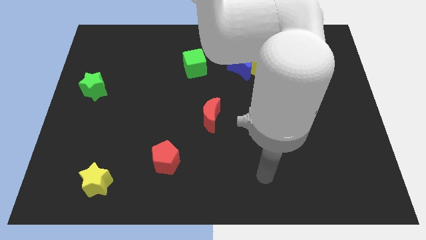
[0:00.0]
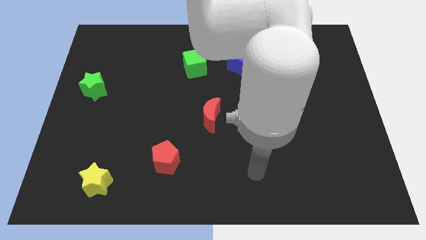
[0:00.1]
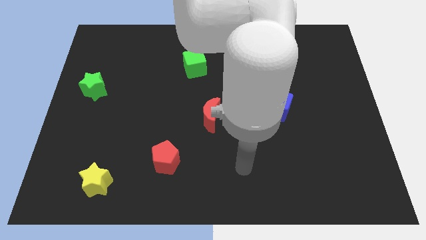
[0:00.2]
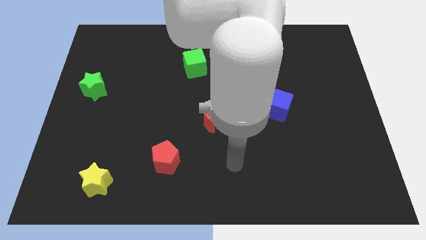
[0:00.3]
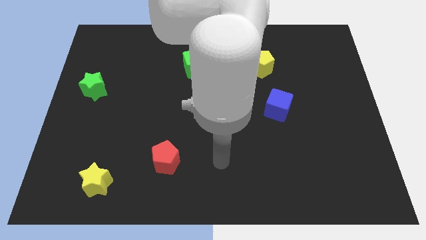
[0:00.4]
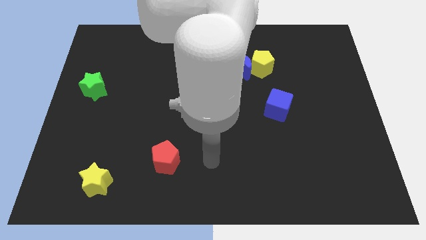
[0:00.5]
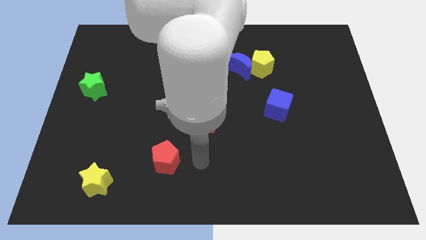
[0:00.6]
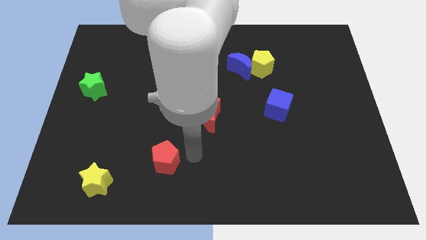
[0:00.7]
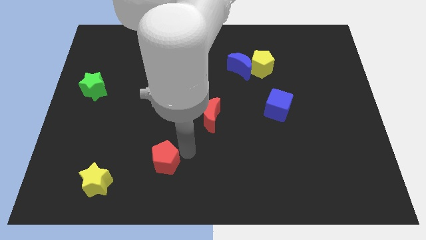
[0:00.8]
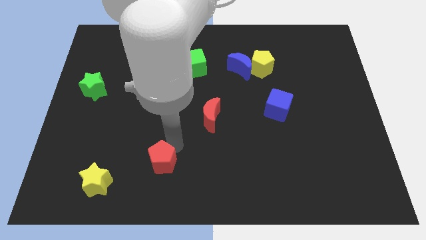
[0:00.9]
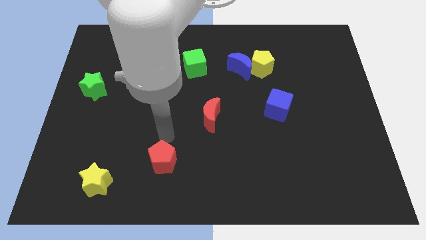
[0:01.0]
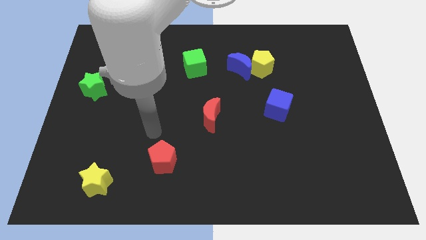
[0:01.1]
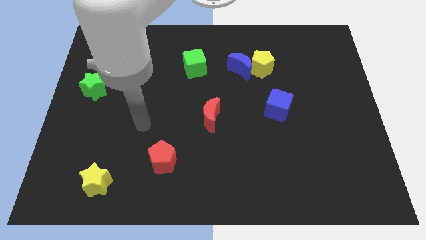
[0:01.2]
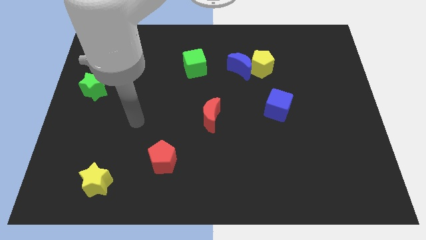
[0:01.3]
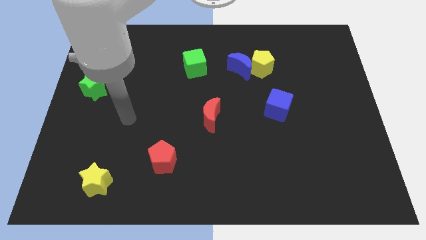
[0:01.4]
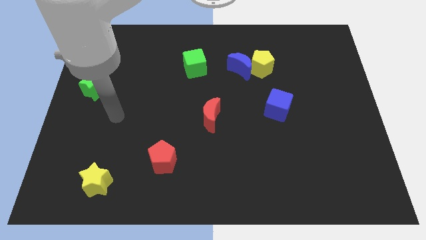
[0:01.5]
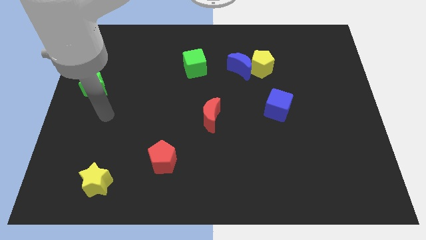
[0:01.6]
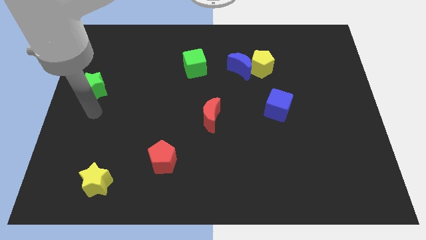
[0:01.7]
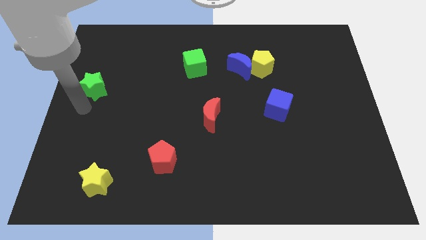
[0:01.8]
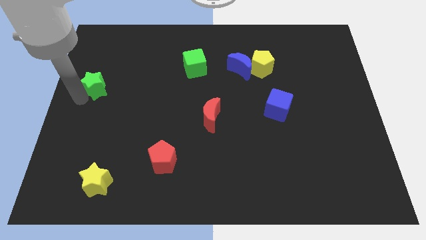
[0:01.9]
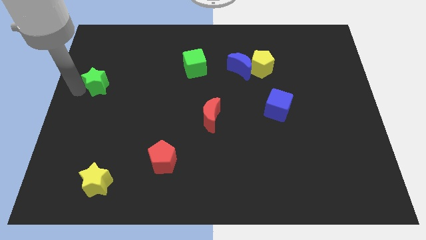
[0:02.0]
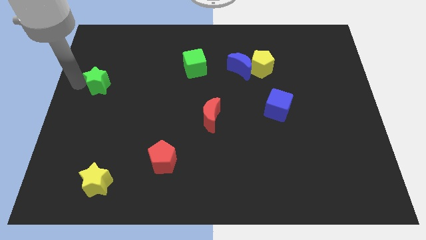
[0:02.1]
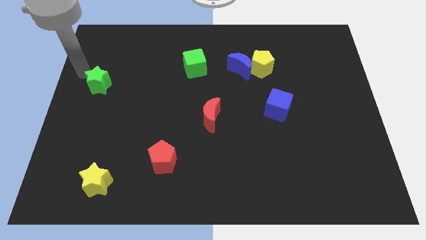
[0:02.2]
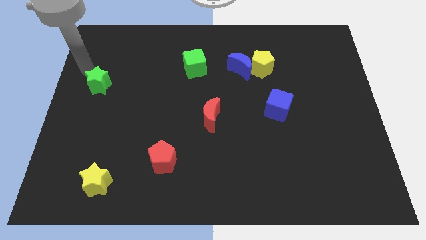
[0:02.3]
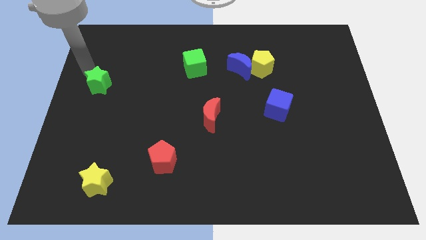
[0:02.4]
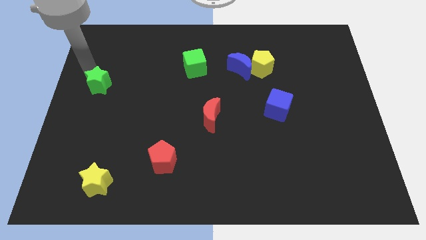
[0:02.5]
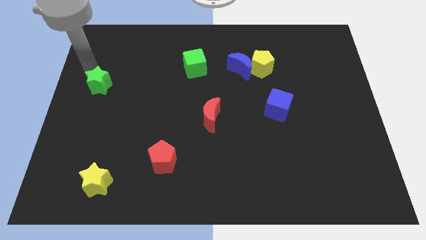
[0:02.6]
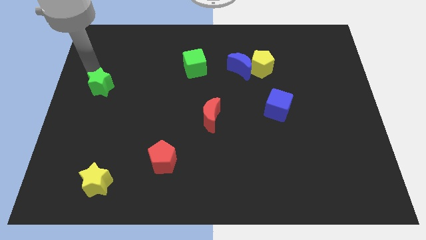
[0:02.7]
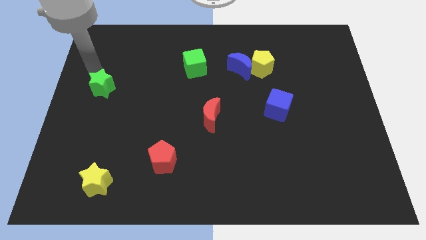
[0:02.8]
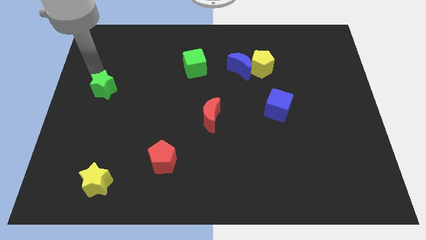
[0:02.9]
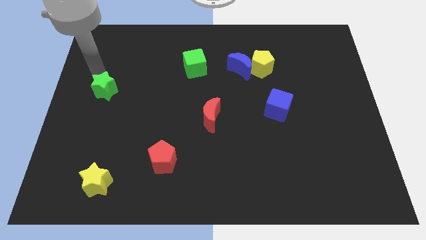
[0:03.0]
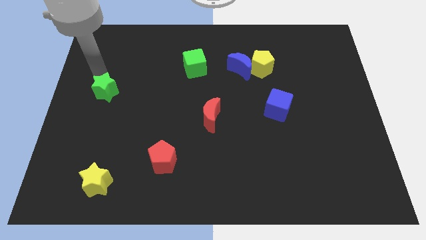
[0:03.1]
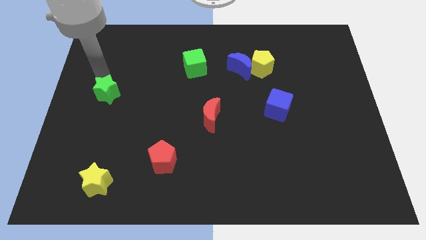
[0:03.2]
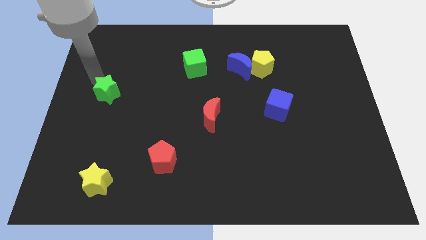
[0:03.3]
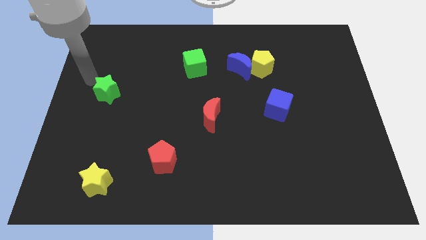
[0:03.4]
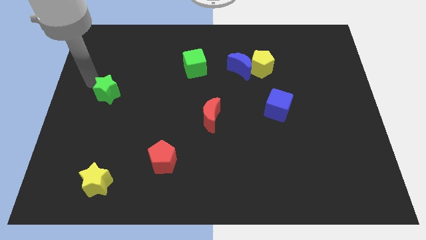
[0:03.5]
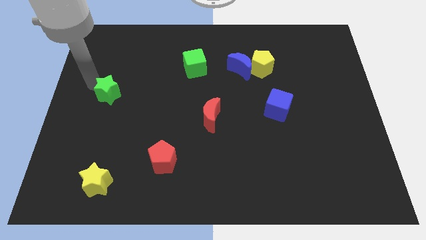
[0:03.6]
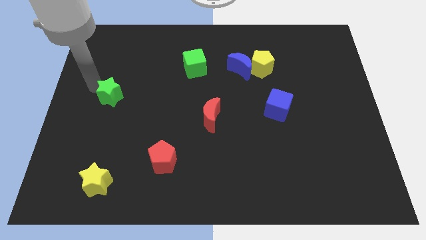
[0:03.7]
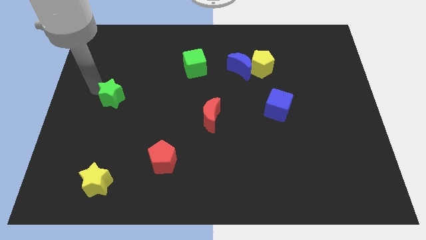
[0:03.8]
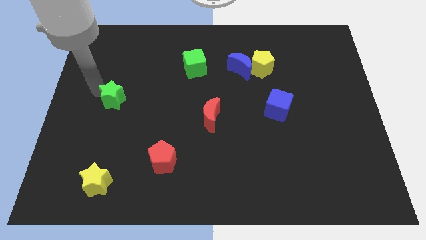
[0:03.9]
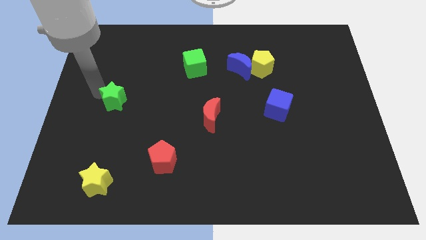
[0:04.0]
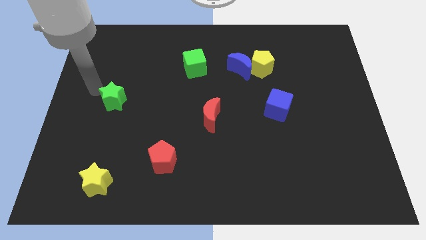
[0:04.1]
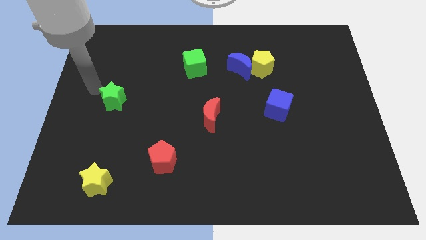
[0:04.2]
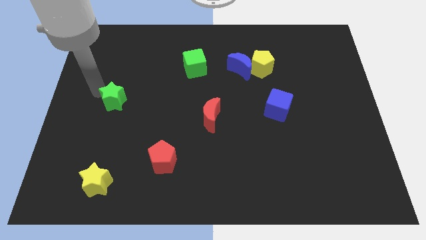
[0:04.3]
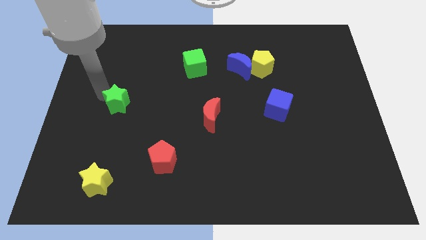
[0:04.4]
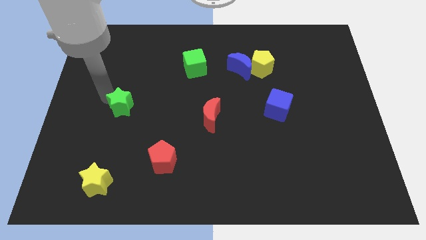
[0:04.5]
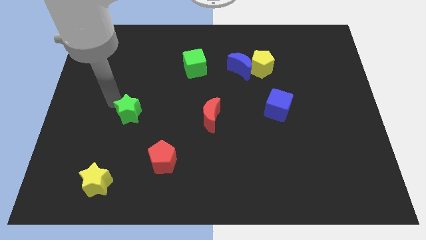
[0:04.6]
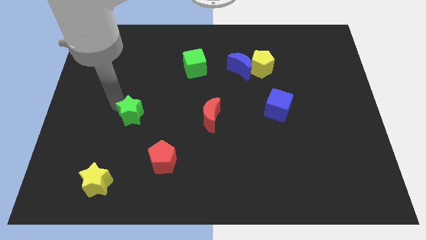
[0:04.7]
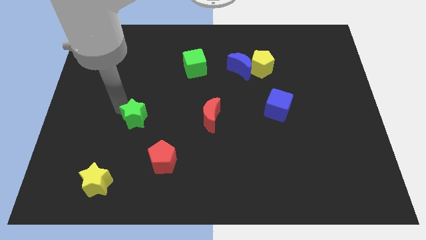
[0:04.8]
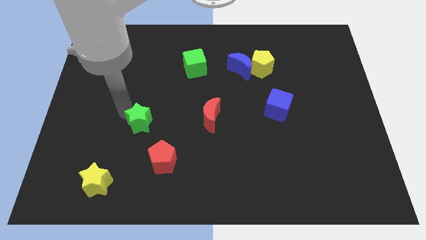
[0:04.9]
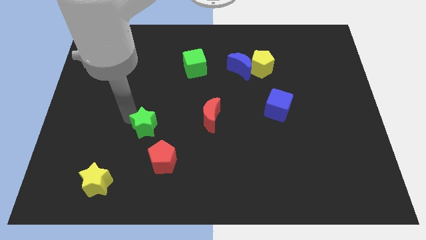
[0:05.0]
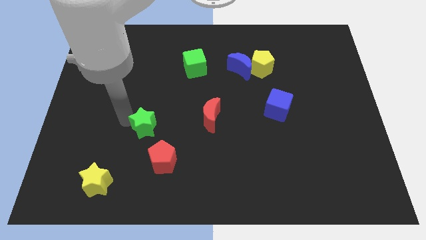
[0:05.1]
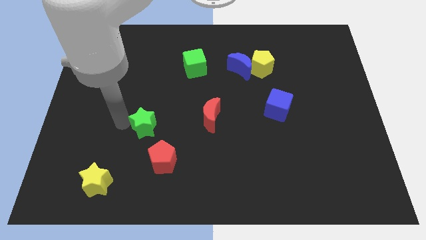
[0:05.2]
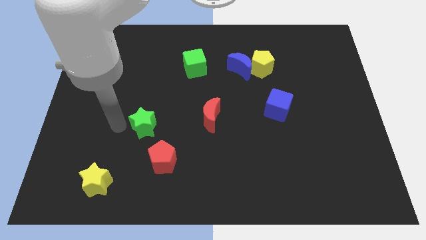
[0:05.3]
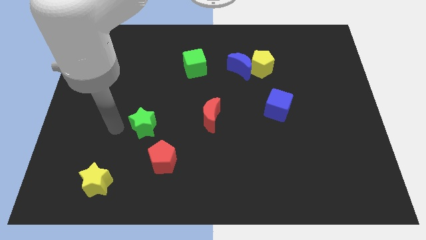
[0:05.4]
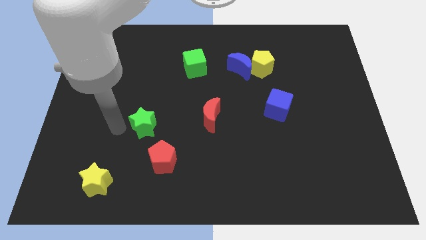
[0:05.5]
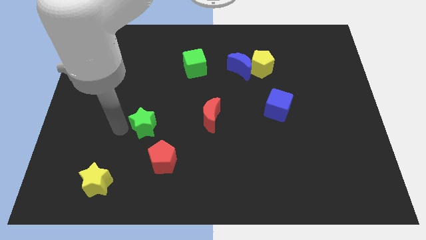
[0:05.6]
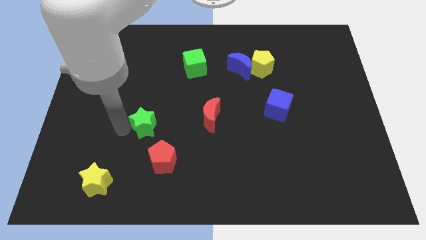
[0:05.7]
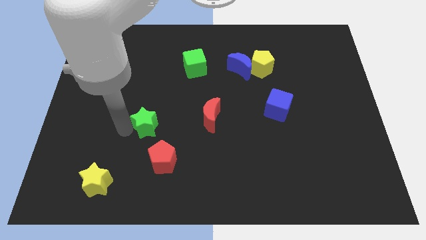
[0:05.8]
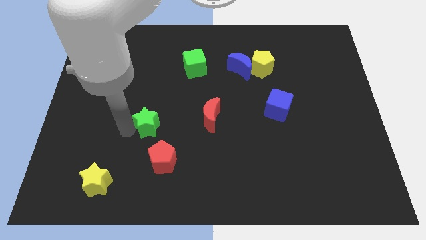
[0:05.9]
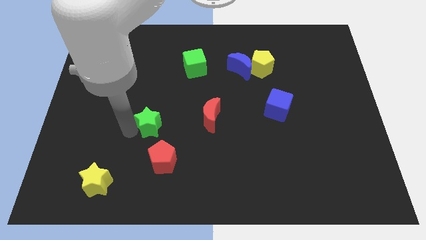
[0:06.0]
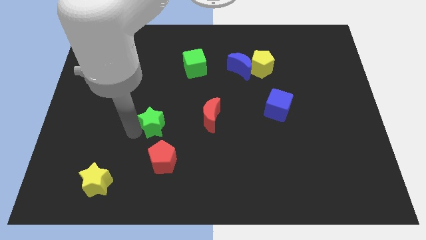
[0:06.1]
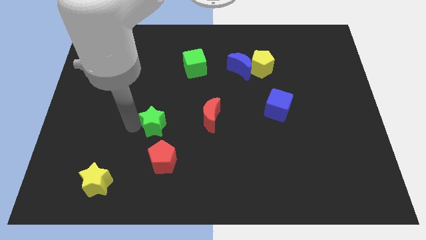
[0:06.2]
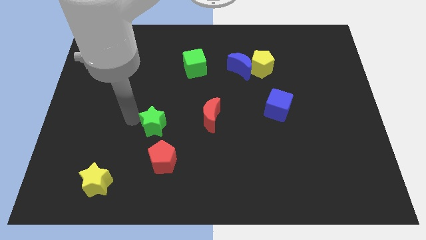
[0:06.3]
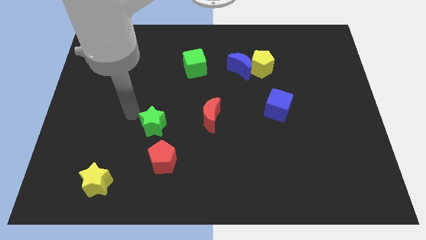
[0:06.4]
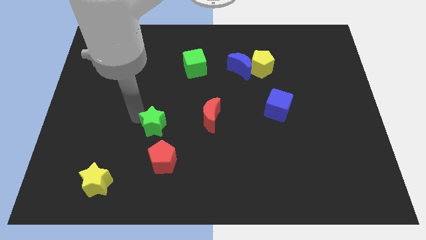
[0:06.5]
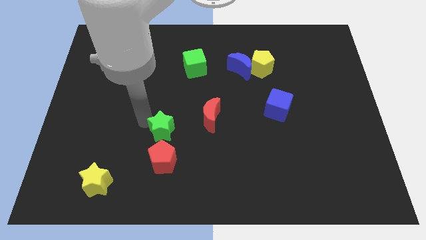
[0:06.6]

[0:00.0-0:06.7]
slide the green star diagonally downwards and to the right

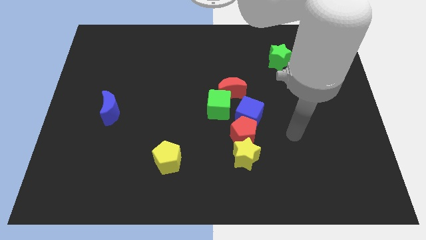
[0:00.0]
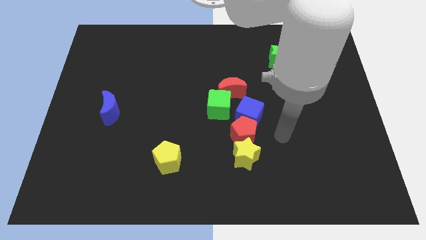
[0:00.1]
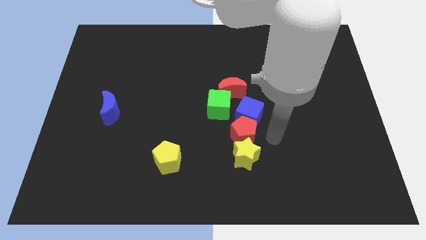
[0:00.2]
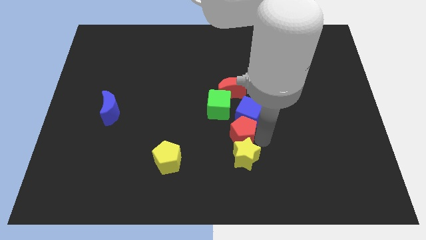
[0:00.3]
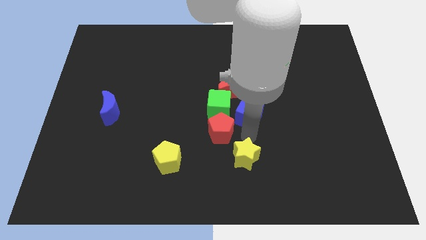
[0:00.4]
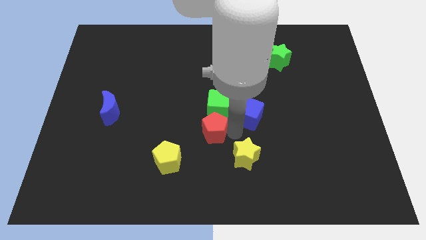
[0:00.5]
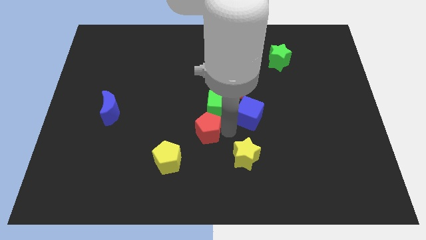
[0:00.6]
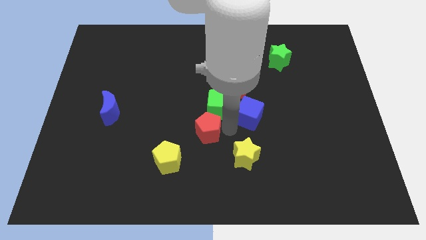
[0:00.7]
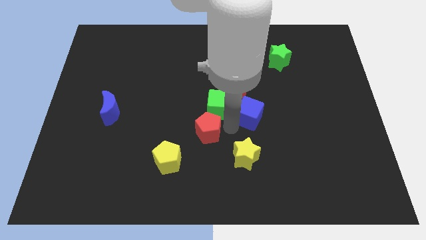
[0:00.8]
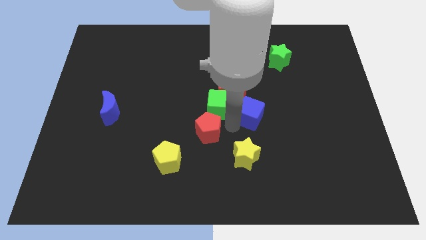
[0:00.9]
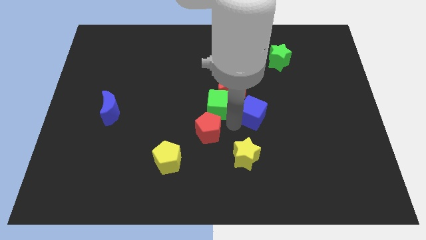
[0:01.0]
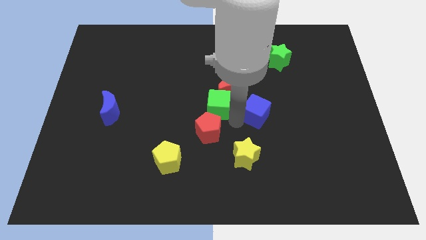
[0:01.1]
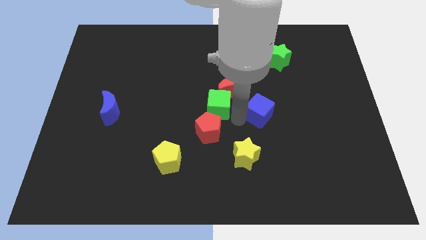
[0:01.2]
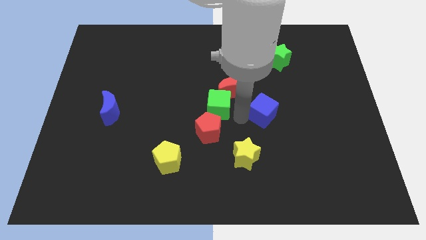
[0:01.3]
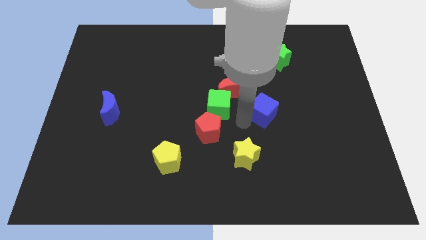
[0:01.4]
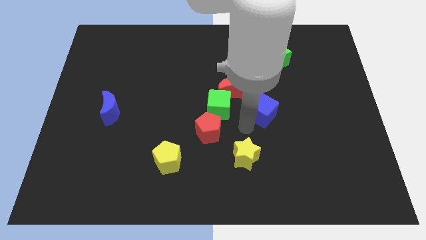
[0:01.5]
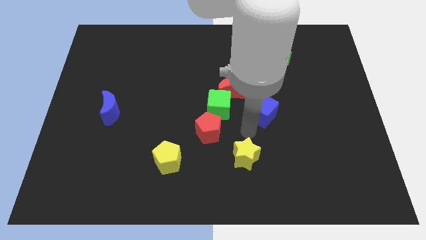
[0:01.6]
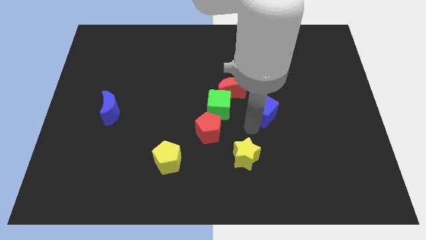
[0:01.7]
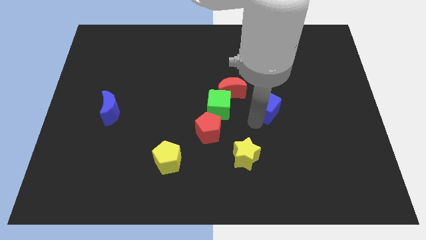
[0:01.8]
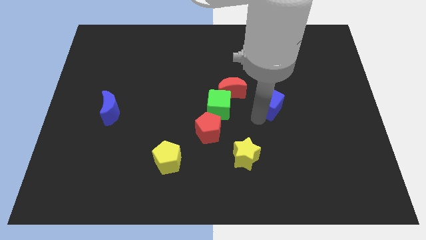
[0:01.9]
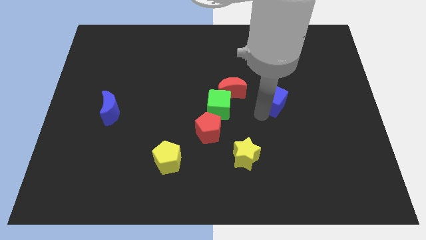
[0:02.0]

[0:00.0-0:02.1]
push the blue cube upwards and then to the right a bit

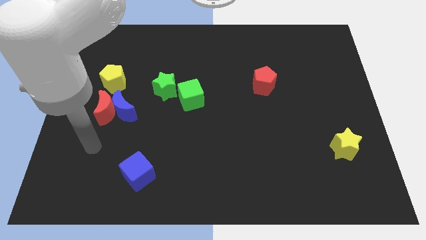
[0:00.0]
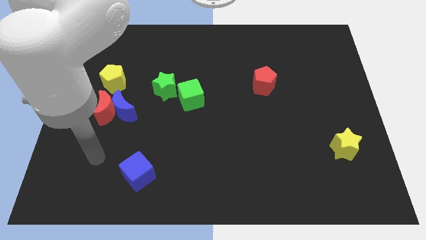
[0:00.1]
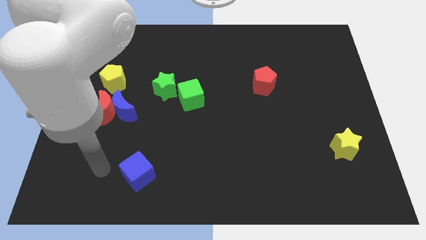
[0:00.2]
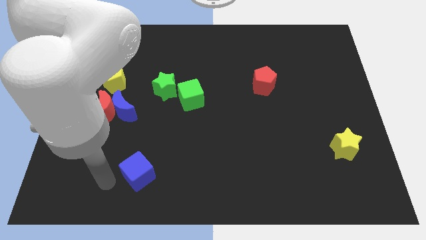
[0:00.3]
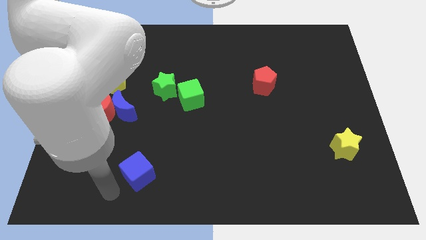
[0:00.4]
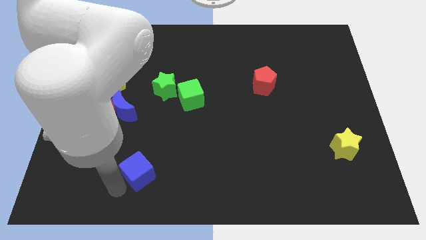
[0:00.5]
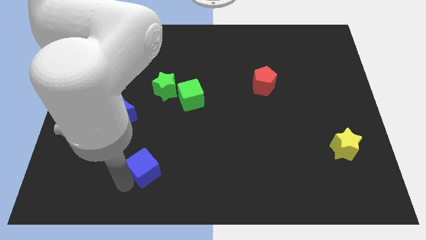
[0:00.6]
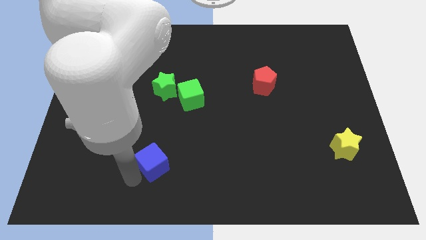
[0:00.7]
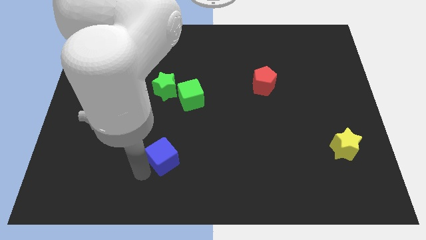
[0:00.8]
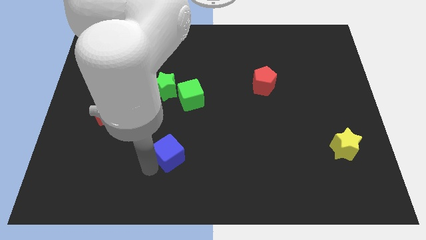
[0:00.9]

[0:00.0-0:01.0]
push the blue cube upwards and to the right diagonally a little
